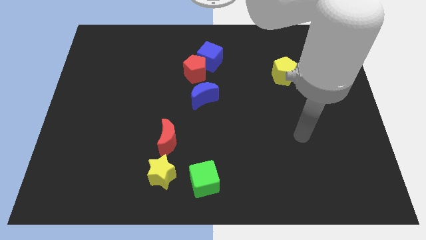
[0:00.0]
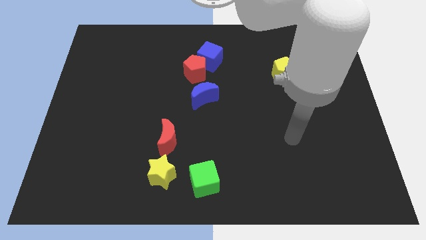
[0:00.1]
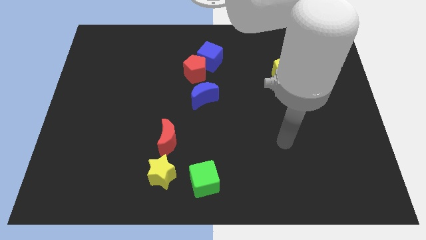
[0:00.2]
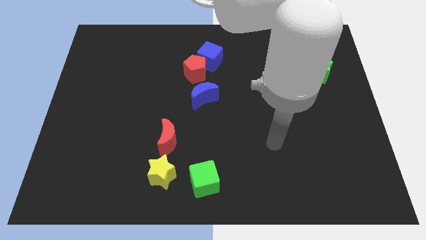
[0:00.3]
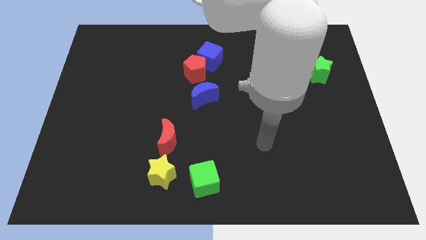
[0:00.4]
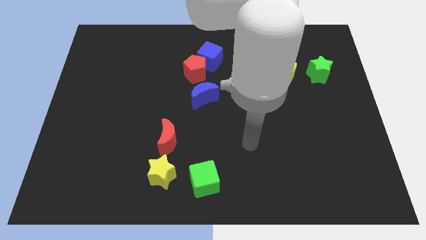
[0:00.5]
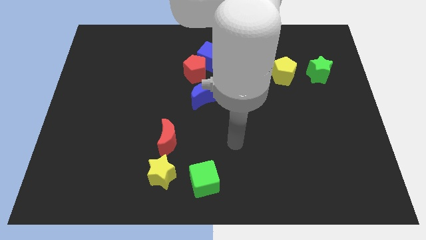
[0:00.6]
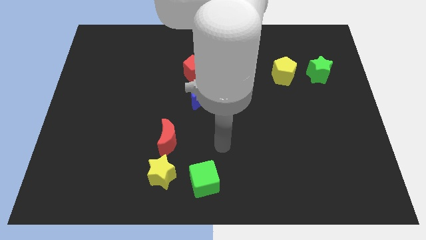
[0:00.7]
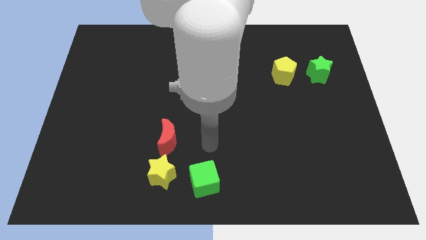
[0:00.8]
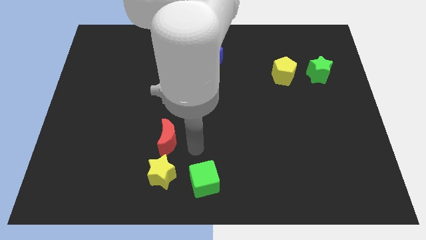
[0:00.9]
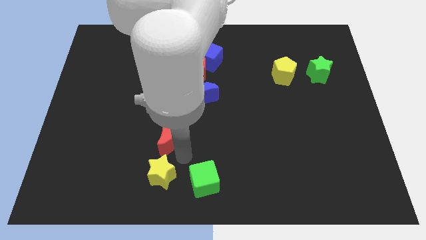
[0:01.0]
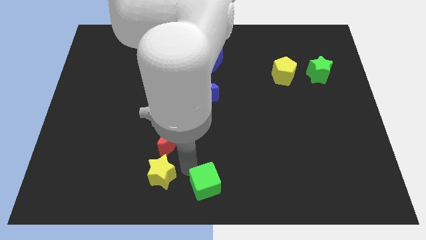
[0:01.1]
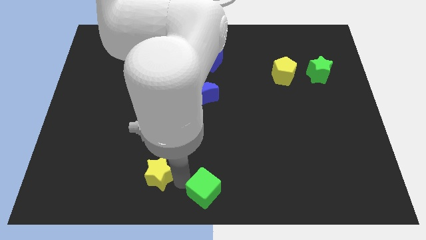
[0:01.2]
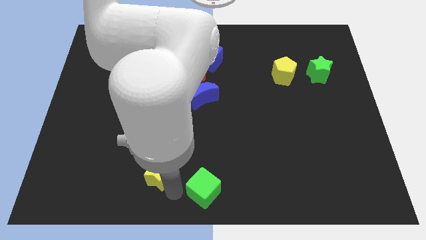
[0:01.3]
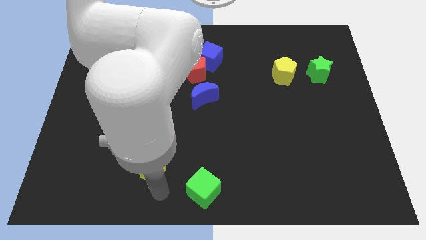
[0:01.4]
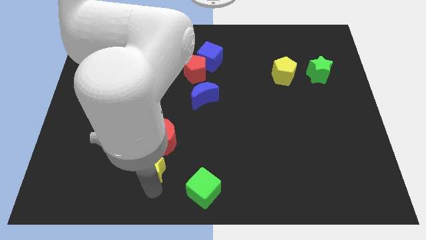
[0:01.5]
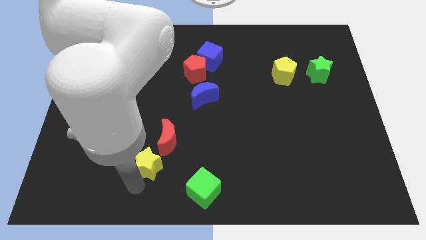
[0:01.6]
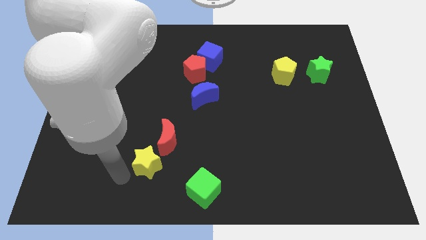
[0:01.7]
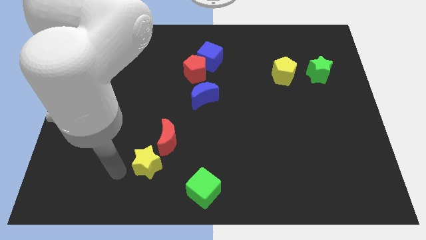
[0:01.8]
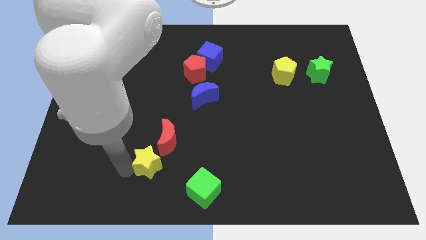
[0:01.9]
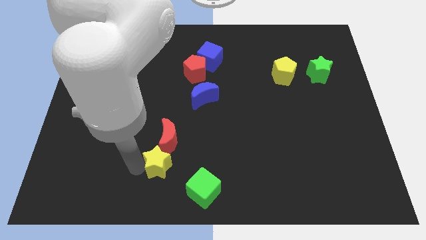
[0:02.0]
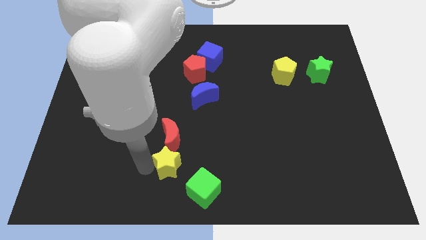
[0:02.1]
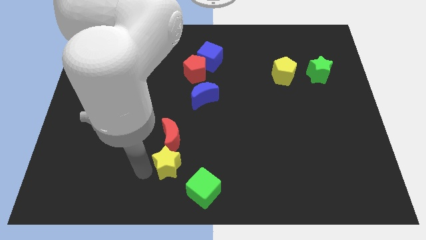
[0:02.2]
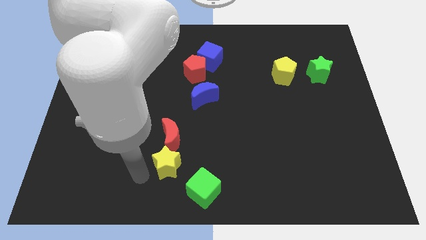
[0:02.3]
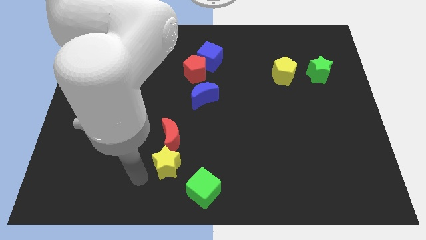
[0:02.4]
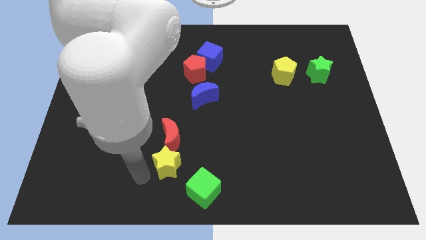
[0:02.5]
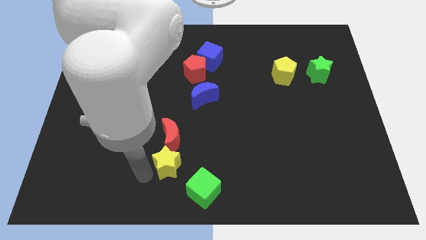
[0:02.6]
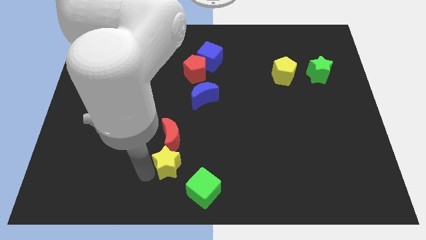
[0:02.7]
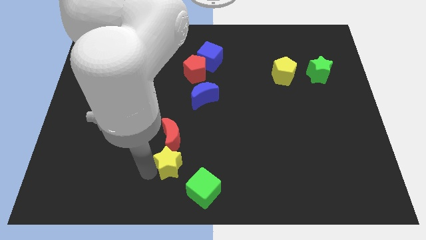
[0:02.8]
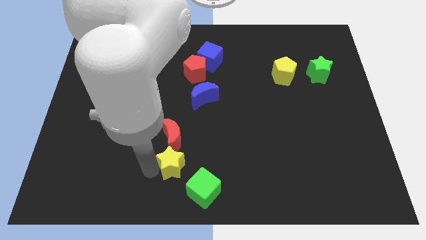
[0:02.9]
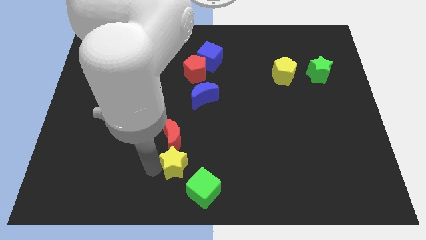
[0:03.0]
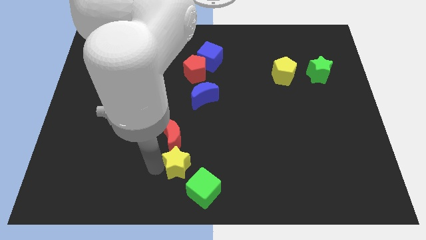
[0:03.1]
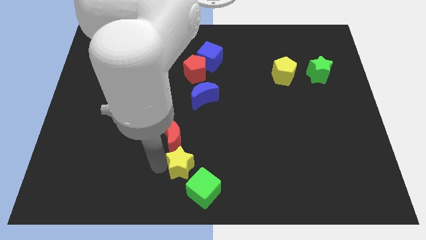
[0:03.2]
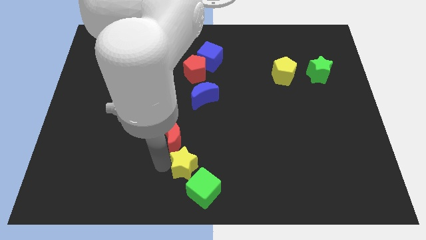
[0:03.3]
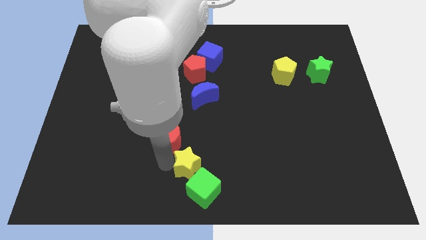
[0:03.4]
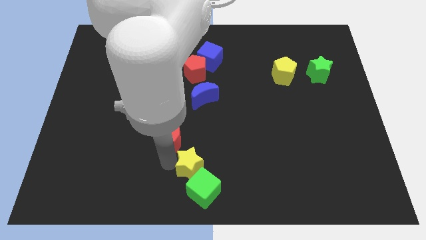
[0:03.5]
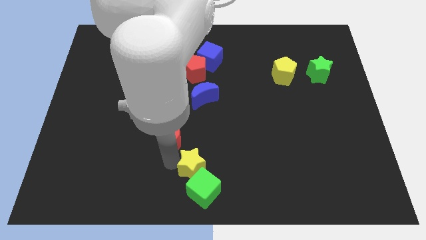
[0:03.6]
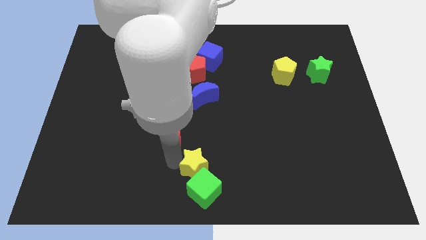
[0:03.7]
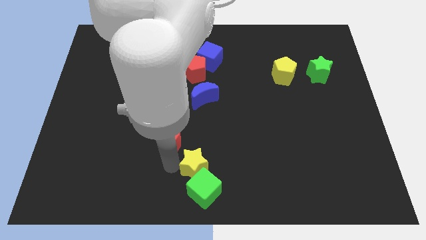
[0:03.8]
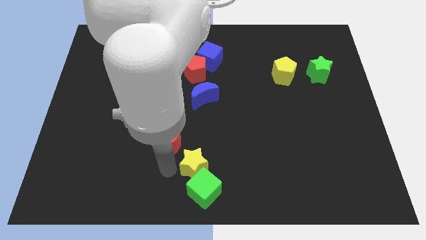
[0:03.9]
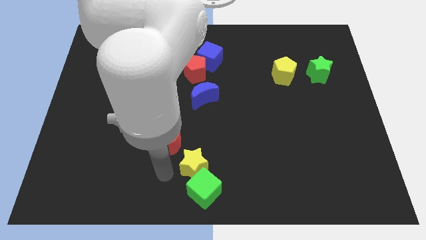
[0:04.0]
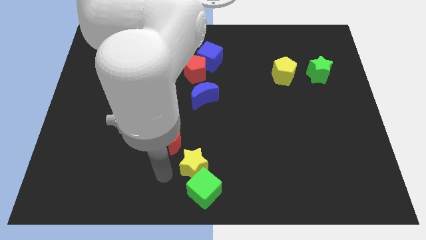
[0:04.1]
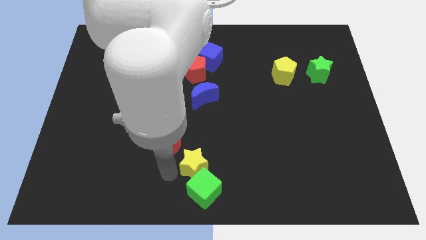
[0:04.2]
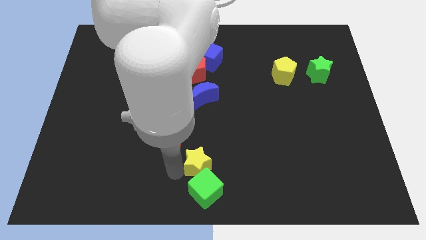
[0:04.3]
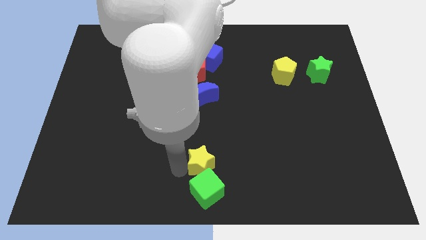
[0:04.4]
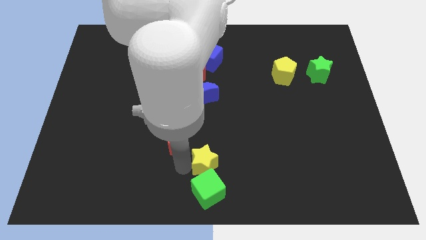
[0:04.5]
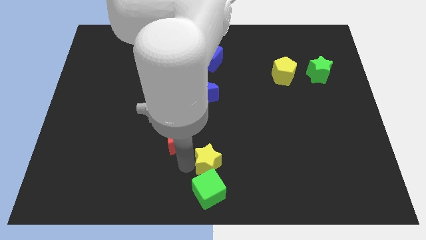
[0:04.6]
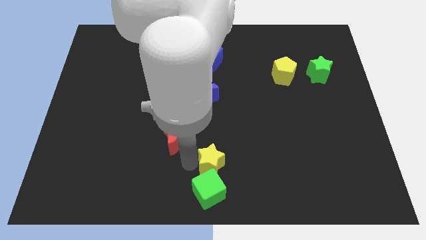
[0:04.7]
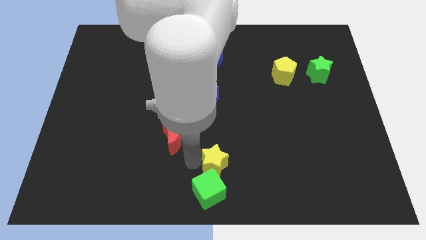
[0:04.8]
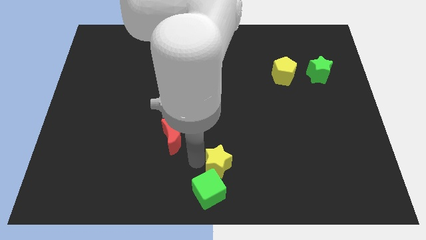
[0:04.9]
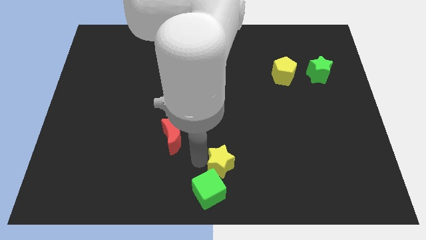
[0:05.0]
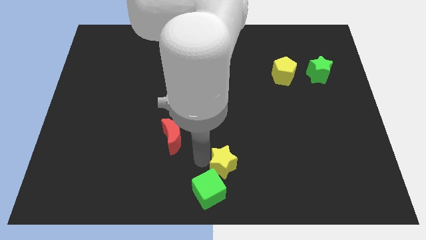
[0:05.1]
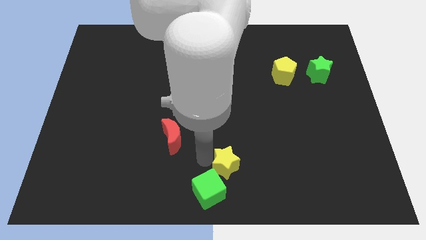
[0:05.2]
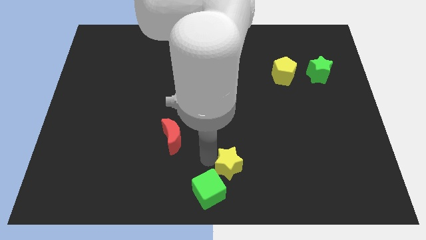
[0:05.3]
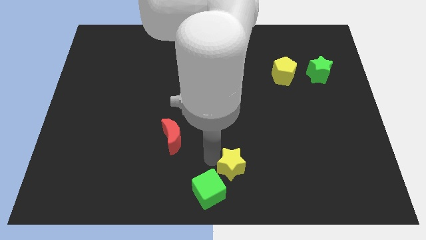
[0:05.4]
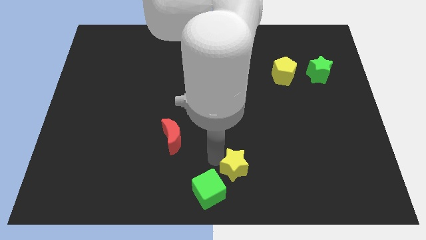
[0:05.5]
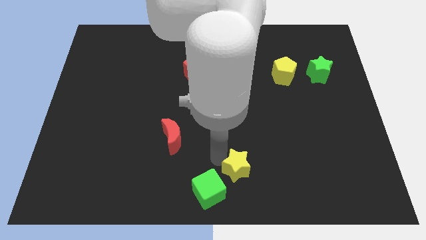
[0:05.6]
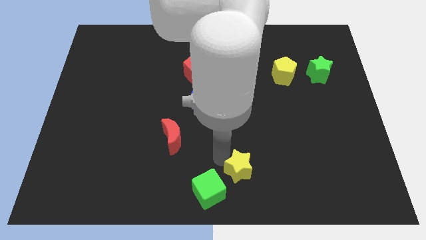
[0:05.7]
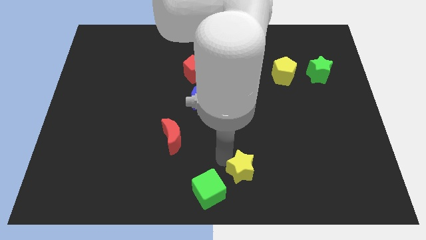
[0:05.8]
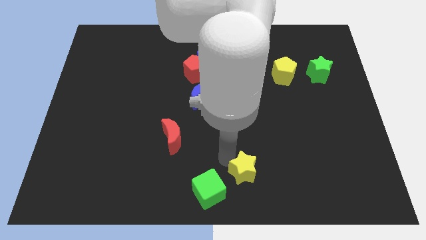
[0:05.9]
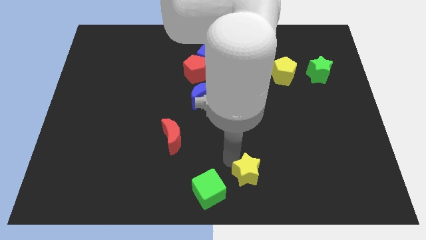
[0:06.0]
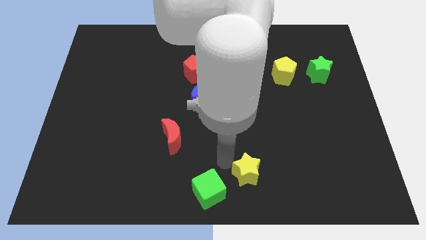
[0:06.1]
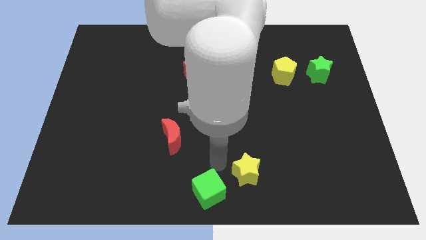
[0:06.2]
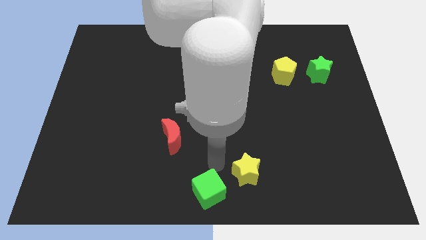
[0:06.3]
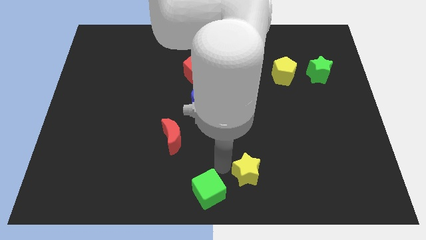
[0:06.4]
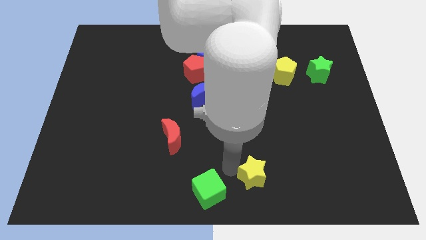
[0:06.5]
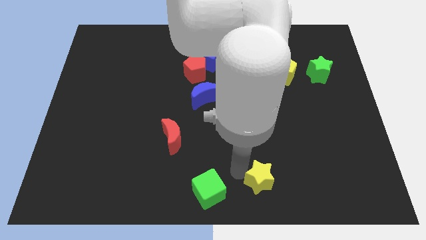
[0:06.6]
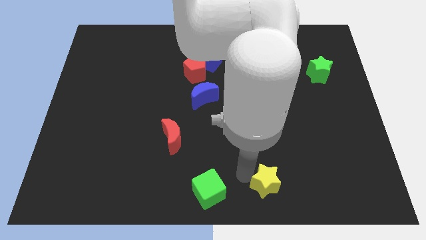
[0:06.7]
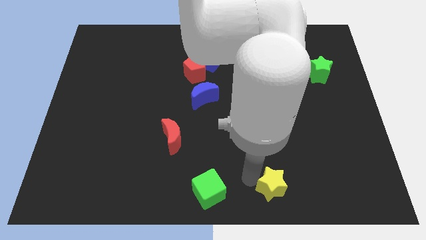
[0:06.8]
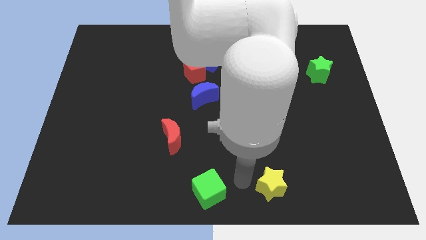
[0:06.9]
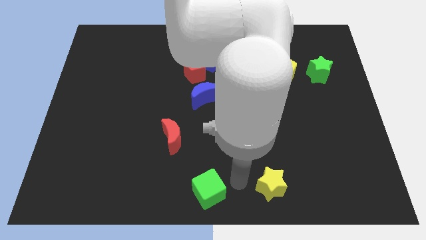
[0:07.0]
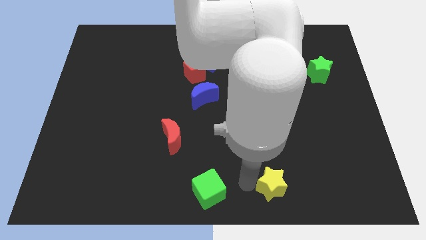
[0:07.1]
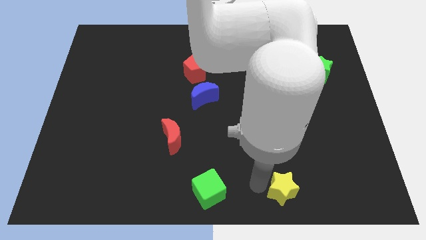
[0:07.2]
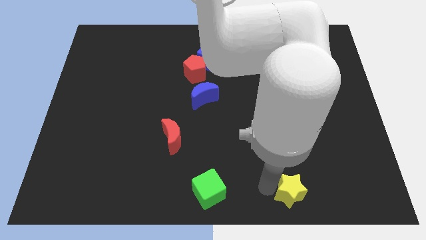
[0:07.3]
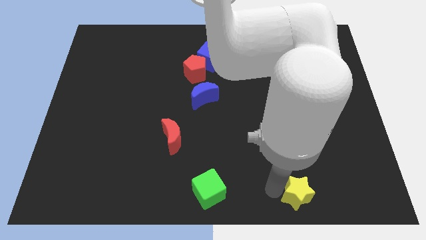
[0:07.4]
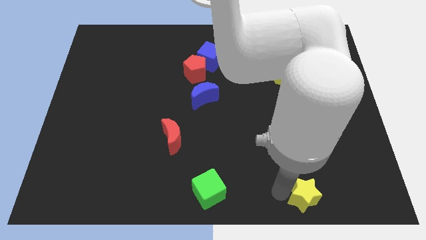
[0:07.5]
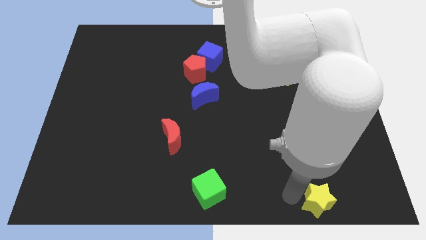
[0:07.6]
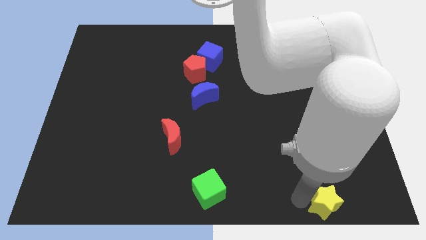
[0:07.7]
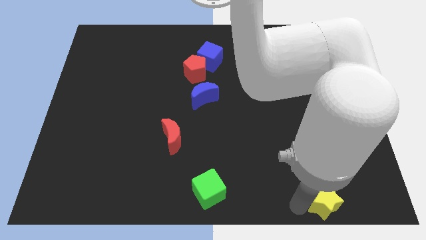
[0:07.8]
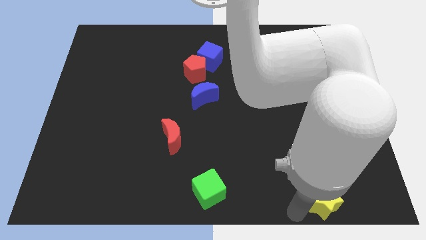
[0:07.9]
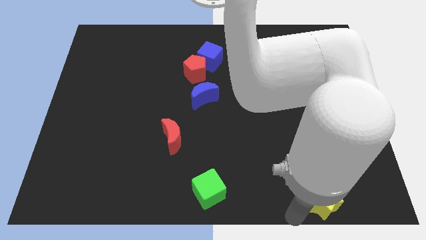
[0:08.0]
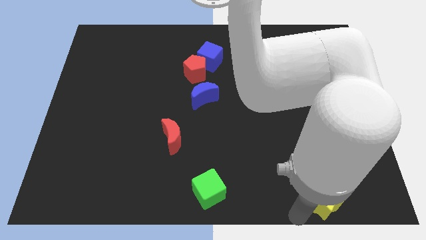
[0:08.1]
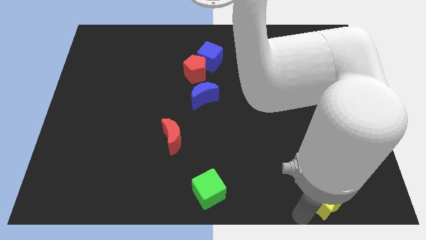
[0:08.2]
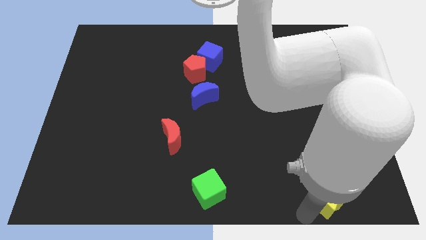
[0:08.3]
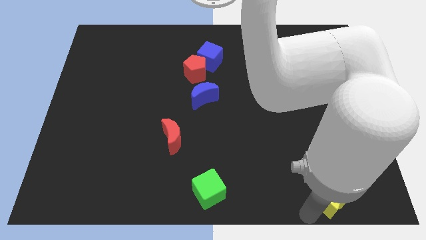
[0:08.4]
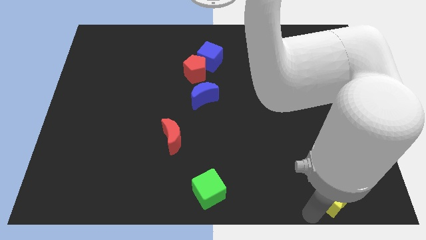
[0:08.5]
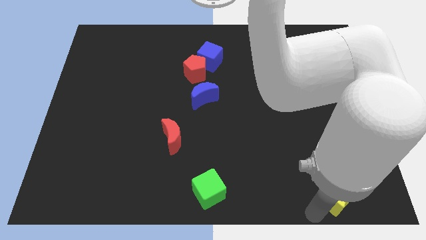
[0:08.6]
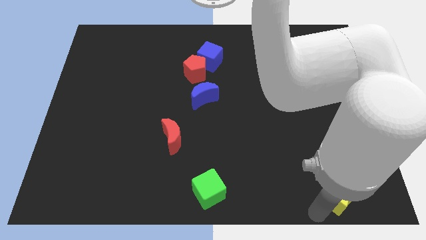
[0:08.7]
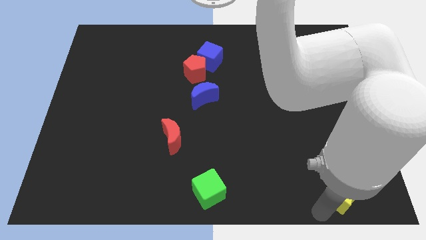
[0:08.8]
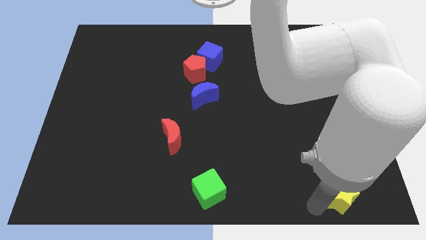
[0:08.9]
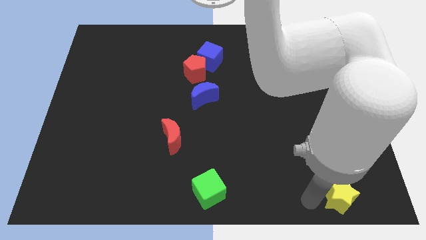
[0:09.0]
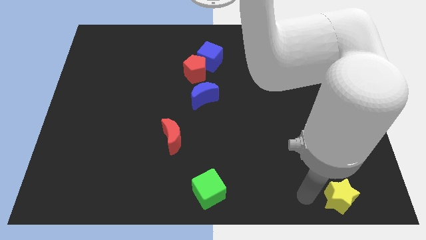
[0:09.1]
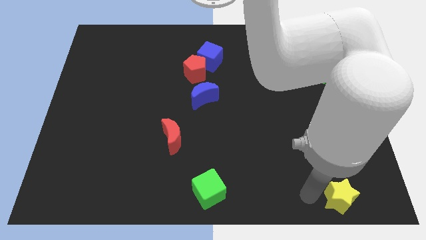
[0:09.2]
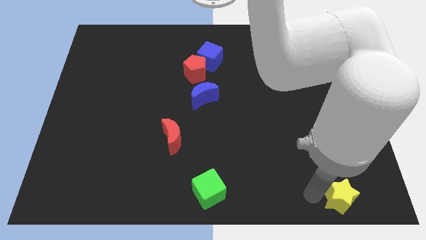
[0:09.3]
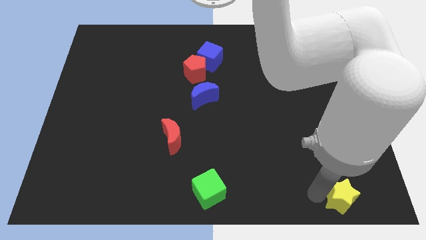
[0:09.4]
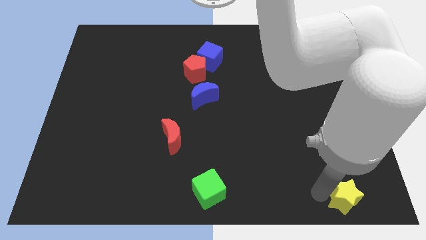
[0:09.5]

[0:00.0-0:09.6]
slide the yellow star to the bottom right
